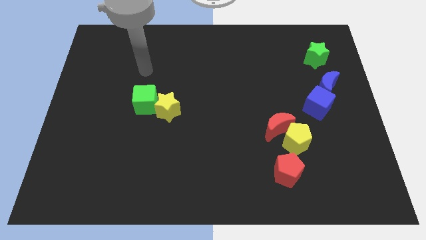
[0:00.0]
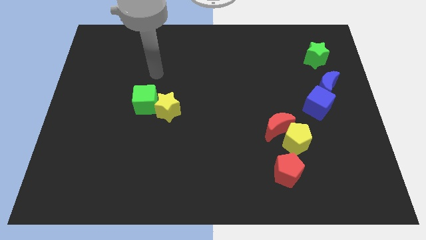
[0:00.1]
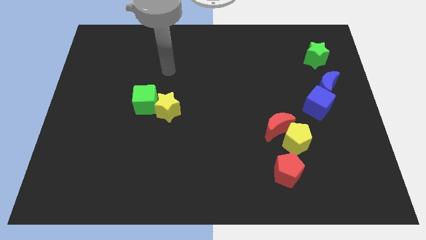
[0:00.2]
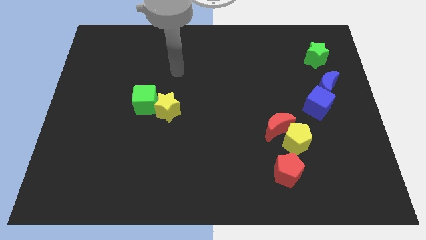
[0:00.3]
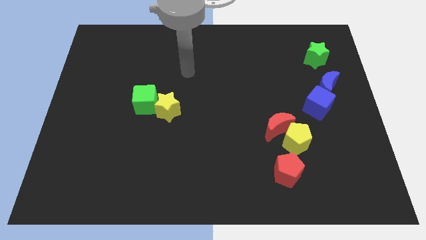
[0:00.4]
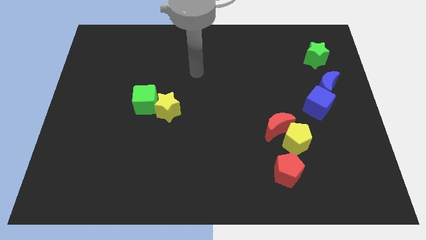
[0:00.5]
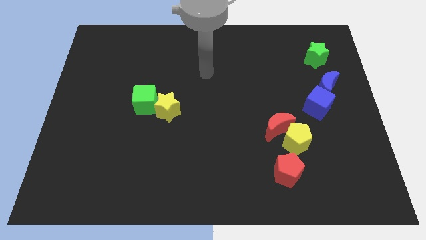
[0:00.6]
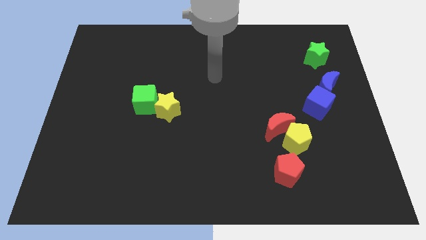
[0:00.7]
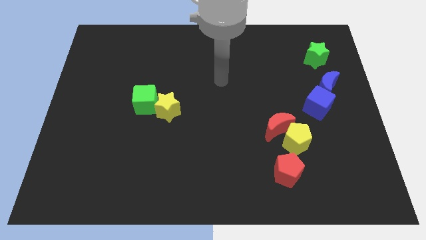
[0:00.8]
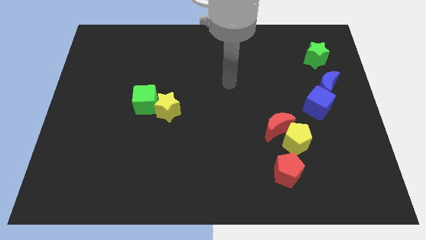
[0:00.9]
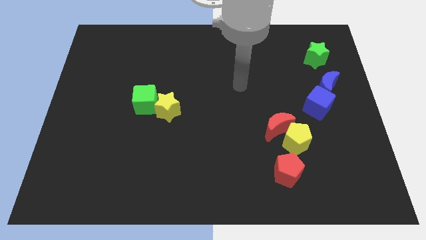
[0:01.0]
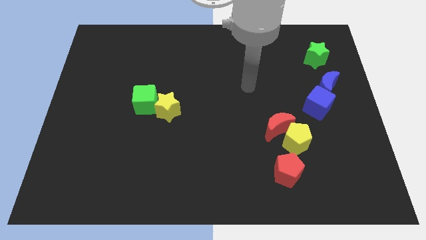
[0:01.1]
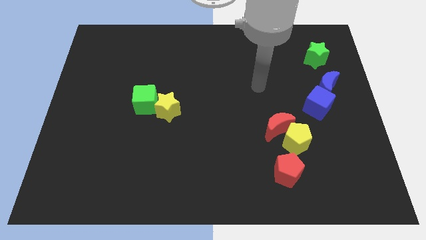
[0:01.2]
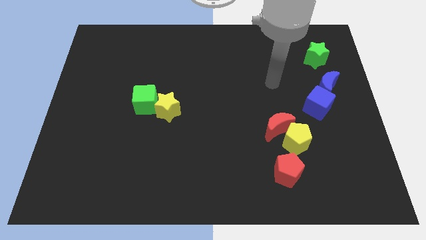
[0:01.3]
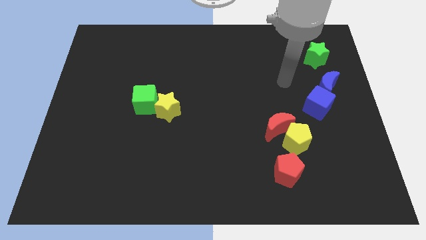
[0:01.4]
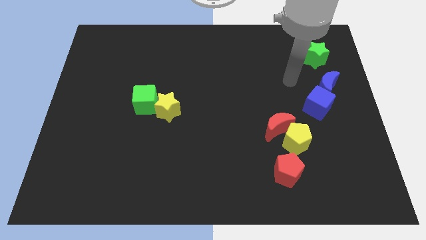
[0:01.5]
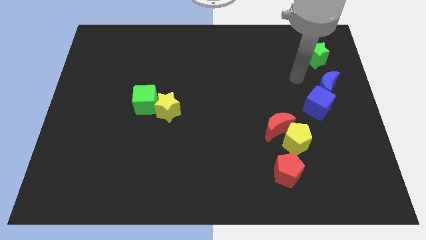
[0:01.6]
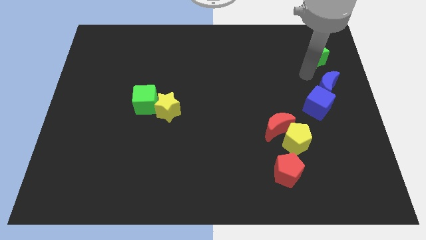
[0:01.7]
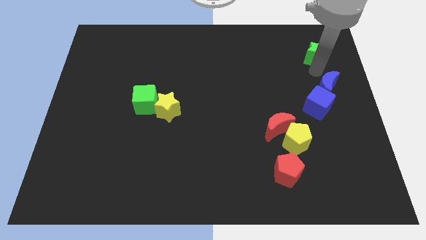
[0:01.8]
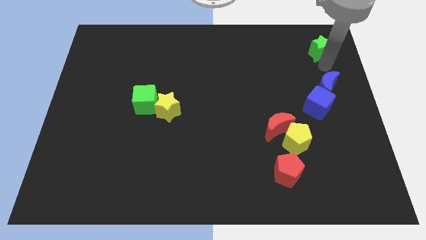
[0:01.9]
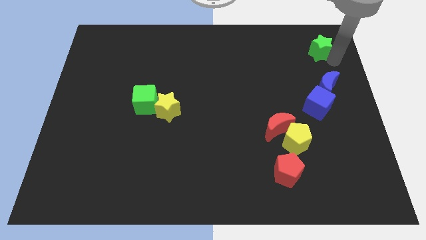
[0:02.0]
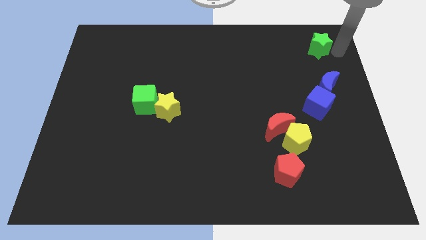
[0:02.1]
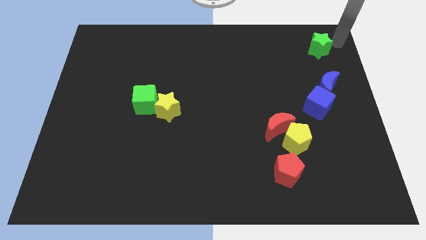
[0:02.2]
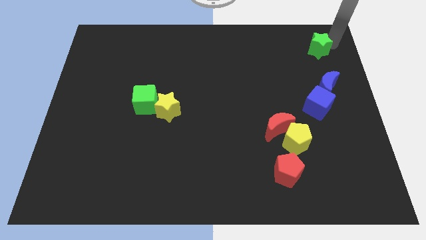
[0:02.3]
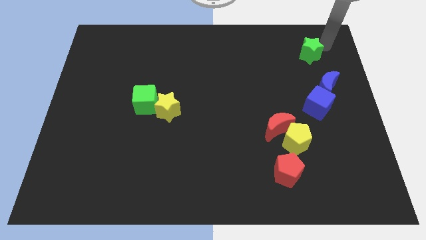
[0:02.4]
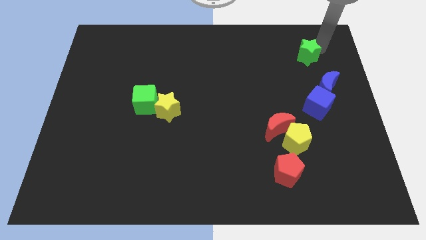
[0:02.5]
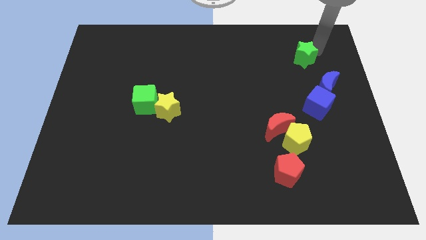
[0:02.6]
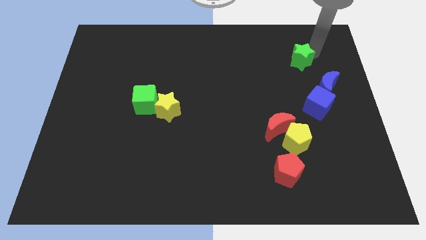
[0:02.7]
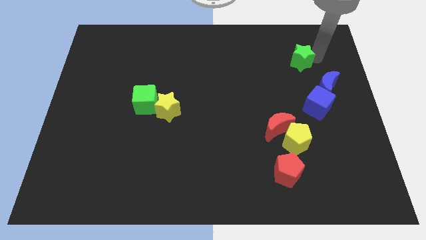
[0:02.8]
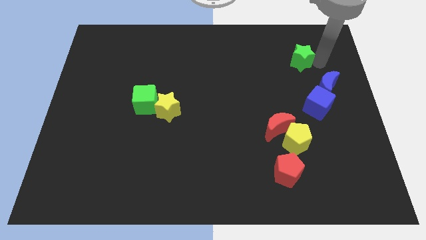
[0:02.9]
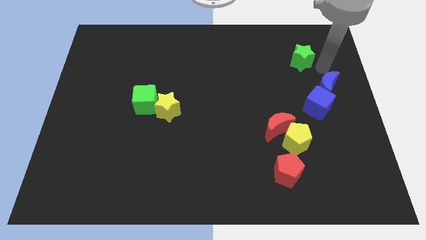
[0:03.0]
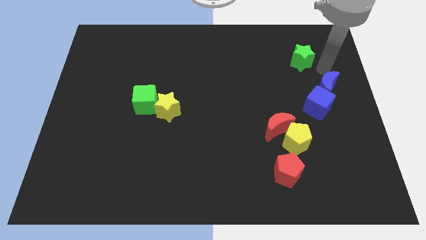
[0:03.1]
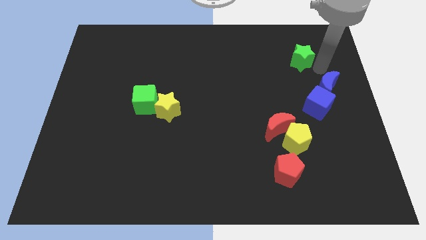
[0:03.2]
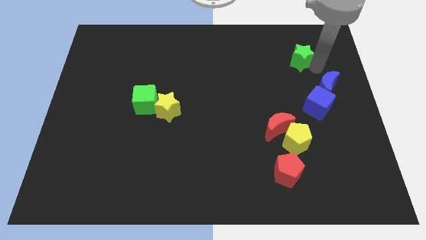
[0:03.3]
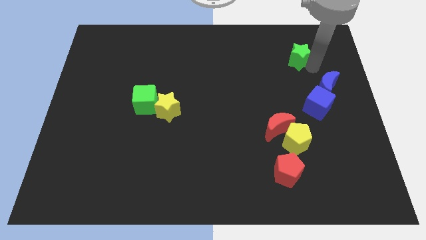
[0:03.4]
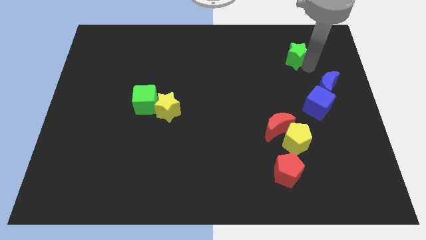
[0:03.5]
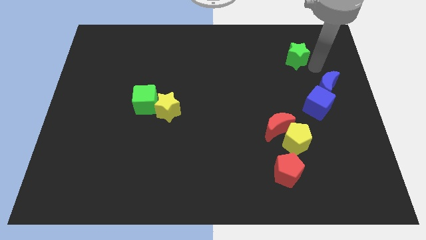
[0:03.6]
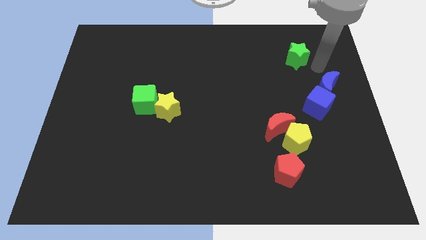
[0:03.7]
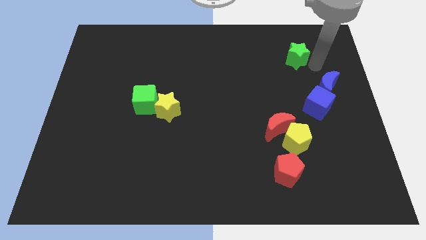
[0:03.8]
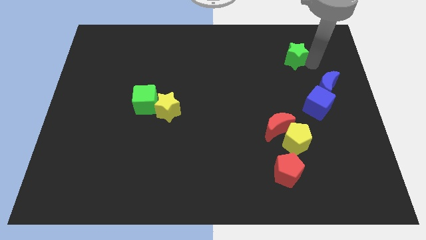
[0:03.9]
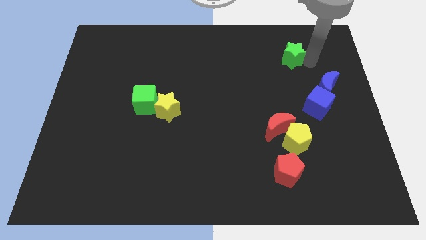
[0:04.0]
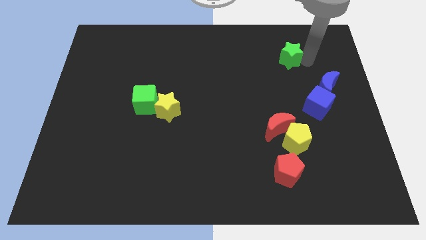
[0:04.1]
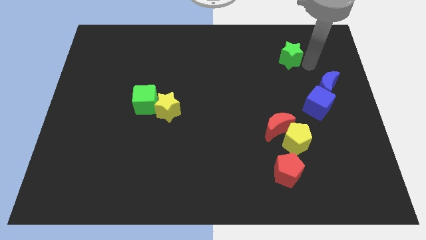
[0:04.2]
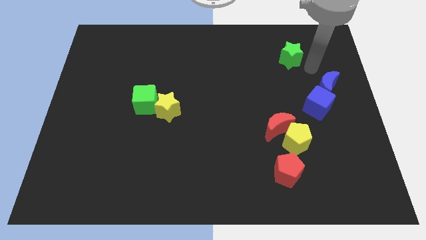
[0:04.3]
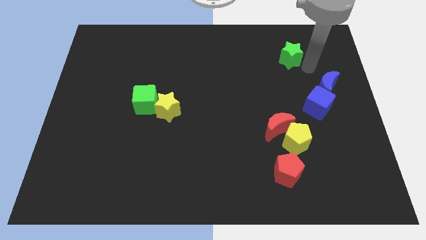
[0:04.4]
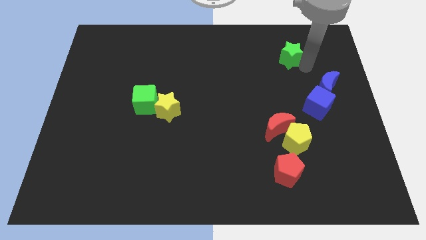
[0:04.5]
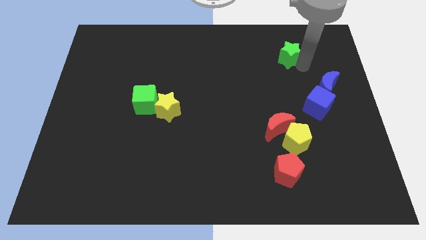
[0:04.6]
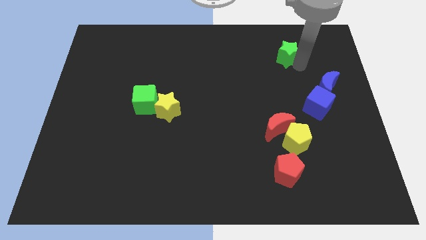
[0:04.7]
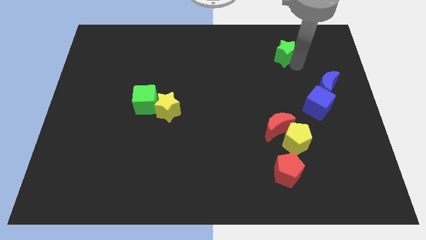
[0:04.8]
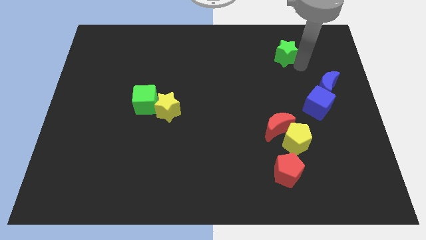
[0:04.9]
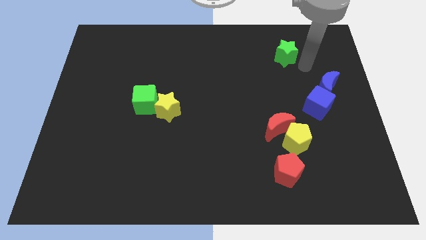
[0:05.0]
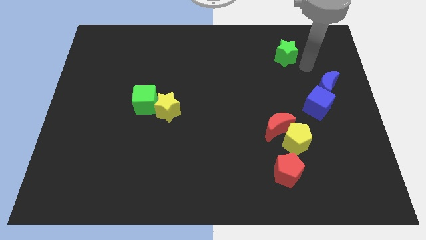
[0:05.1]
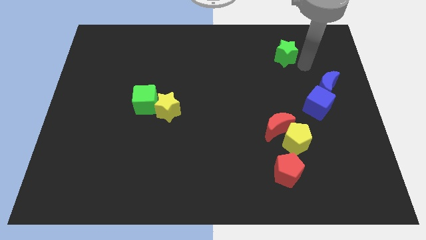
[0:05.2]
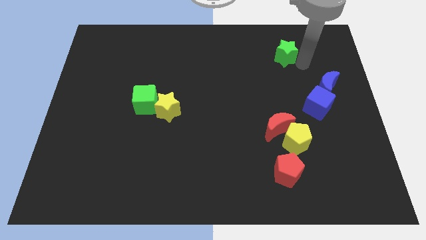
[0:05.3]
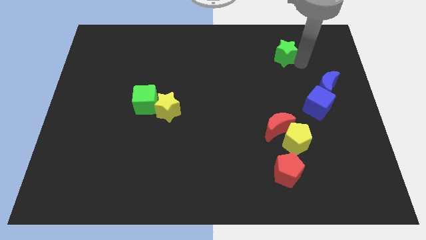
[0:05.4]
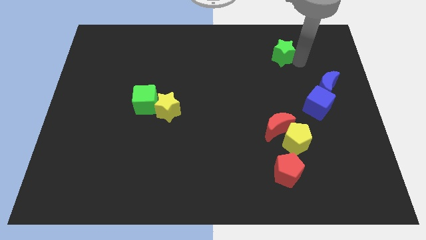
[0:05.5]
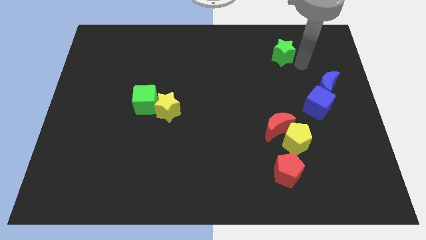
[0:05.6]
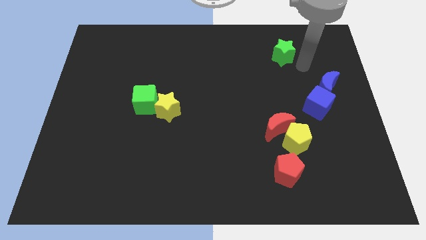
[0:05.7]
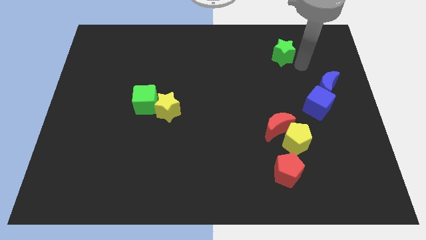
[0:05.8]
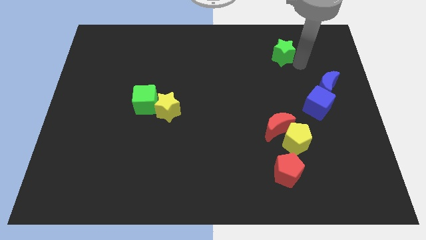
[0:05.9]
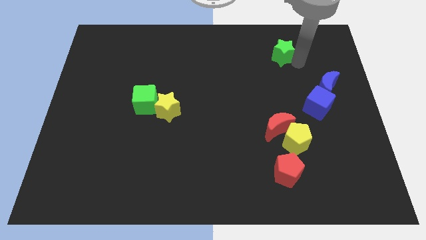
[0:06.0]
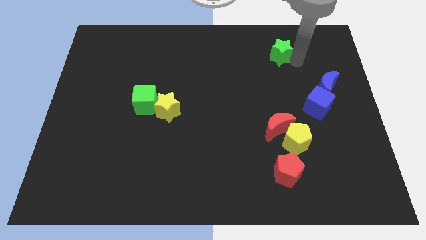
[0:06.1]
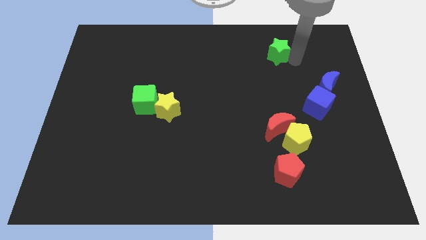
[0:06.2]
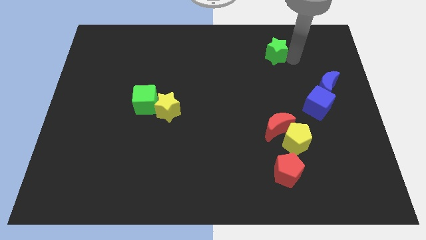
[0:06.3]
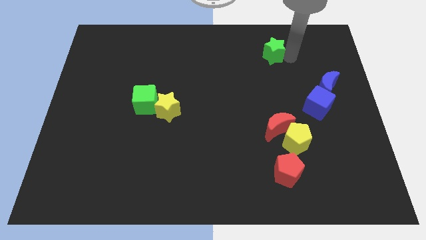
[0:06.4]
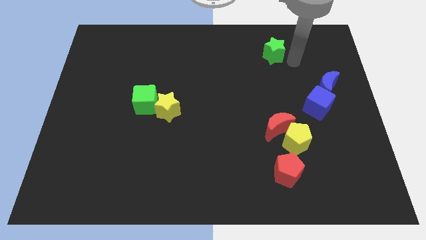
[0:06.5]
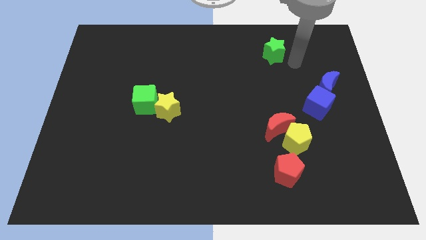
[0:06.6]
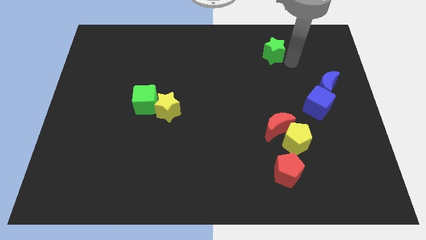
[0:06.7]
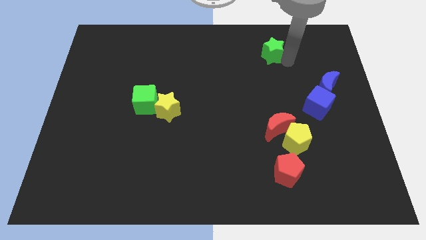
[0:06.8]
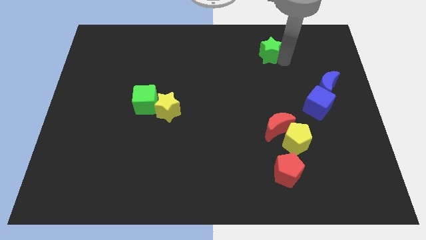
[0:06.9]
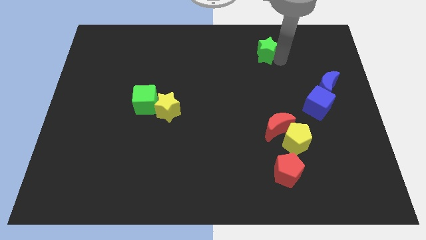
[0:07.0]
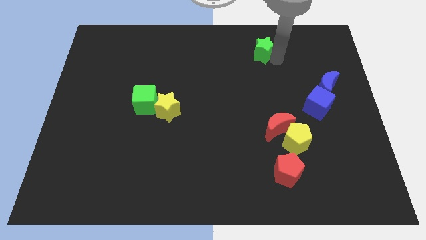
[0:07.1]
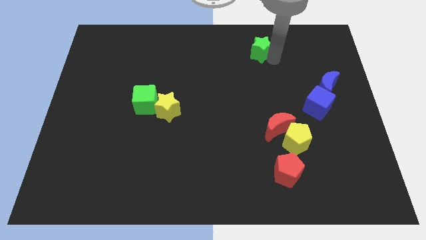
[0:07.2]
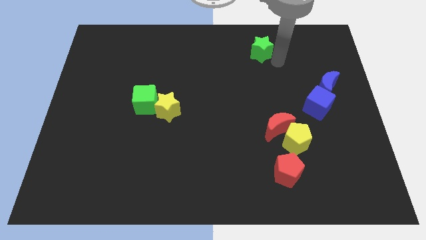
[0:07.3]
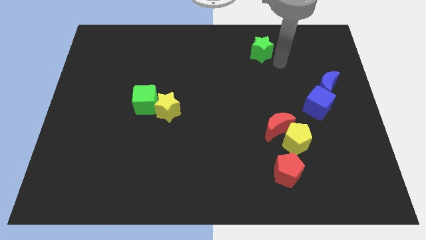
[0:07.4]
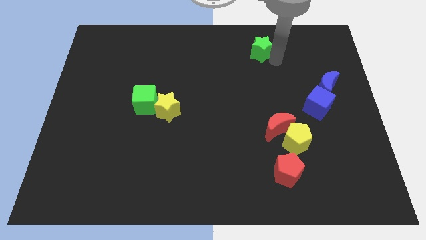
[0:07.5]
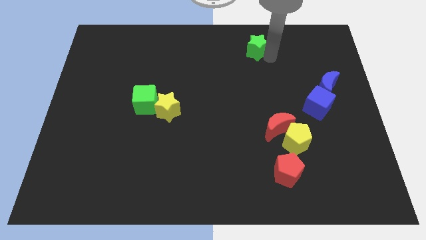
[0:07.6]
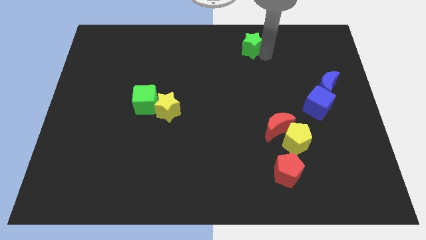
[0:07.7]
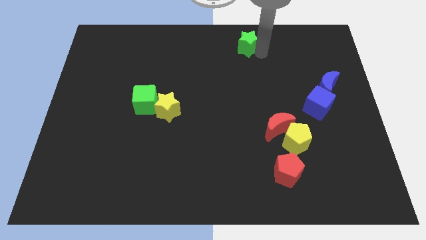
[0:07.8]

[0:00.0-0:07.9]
slide the green star to the towards your base
